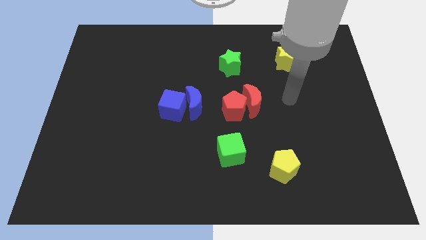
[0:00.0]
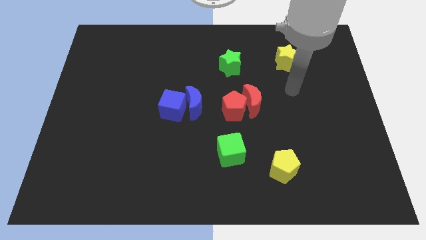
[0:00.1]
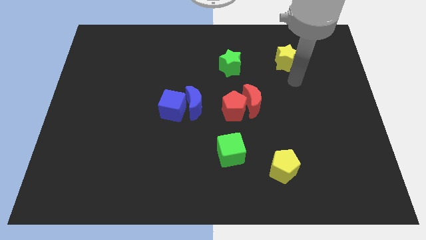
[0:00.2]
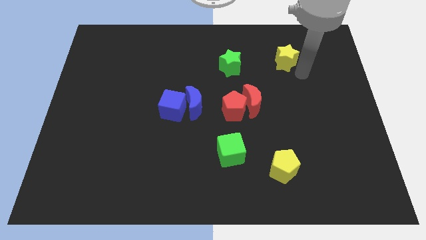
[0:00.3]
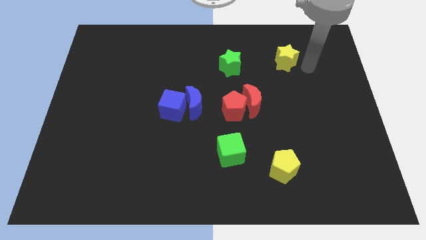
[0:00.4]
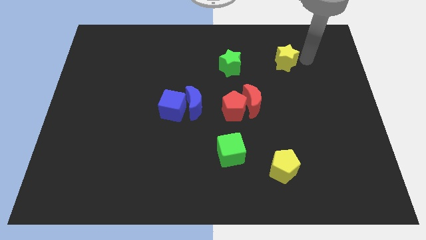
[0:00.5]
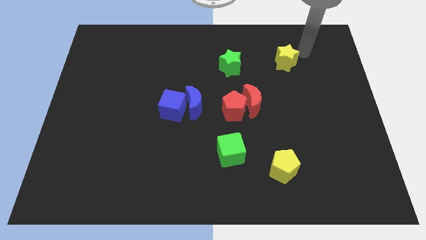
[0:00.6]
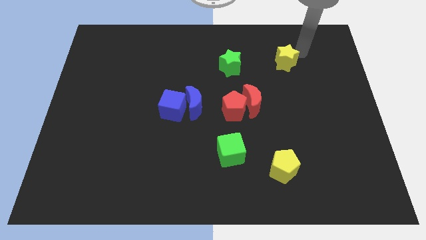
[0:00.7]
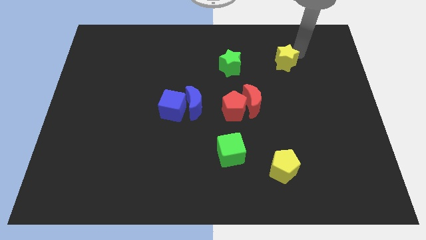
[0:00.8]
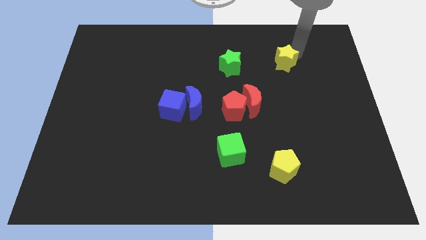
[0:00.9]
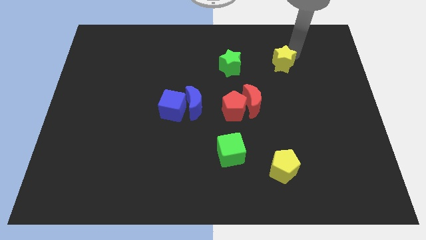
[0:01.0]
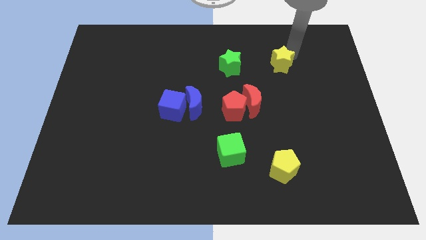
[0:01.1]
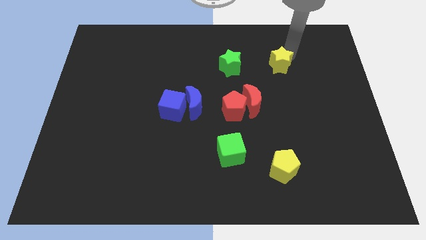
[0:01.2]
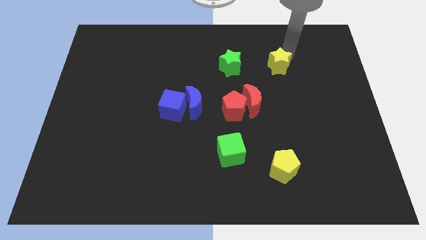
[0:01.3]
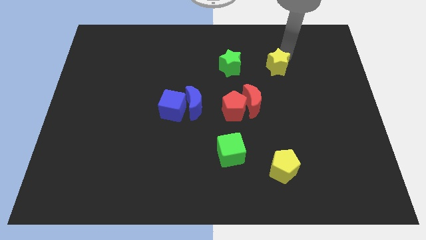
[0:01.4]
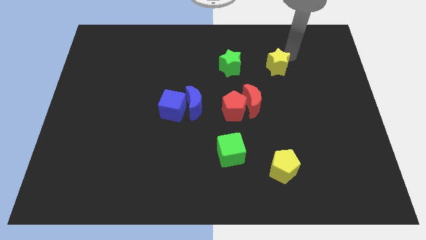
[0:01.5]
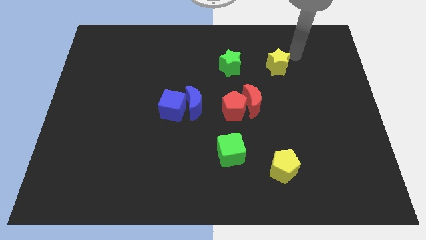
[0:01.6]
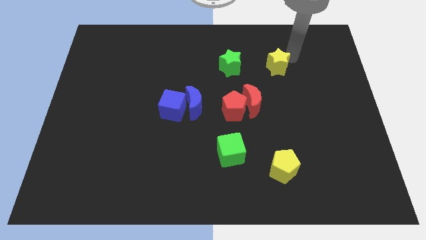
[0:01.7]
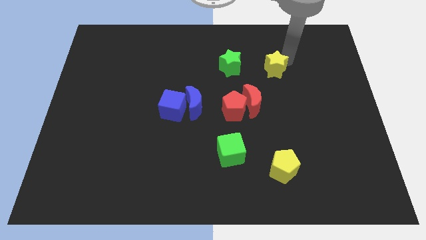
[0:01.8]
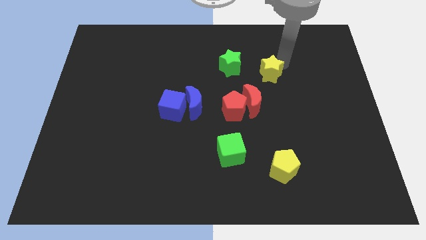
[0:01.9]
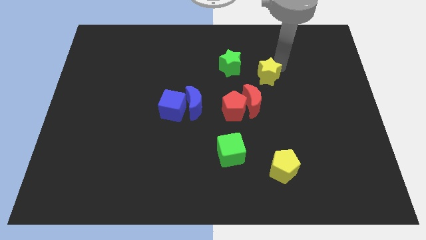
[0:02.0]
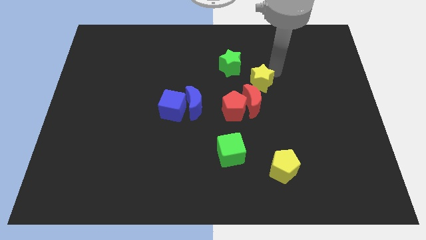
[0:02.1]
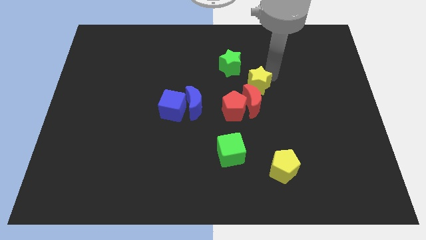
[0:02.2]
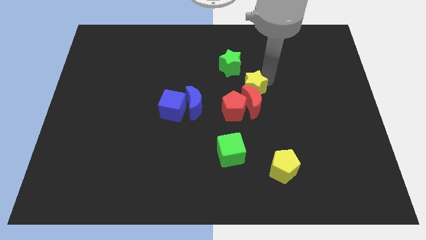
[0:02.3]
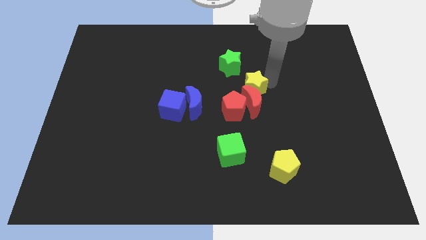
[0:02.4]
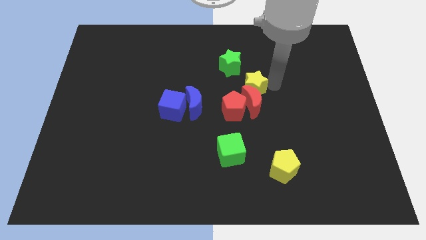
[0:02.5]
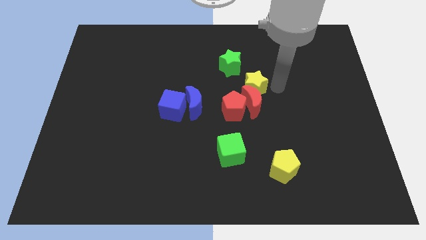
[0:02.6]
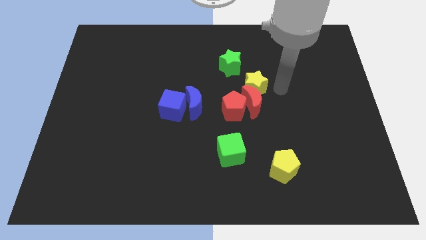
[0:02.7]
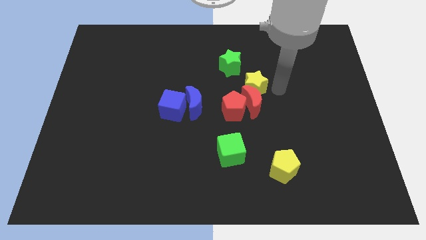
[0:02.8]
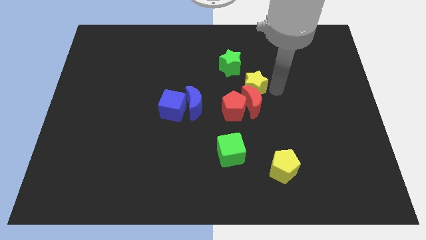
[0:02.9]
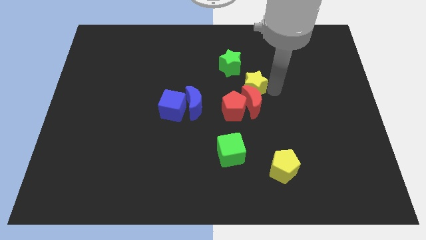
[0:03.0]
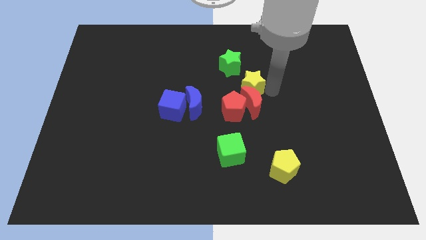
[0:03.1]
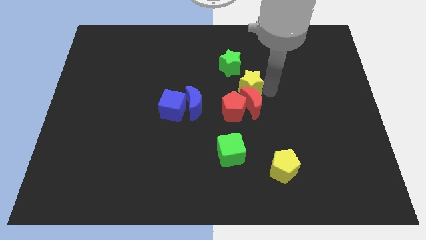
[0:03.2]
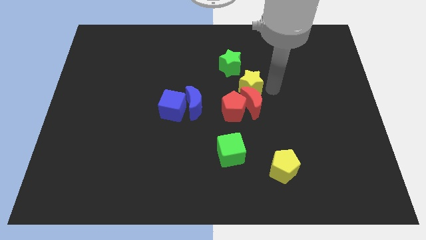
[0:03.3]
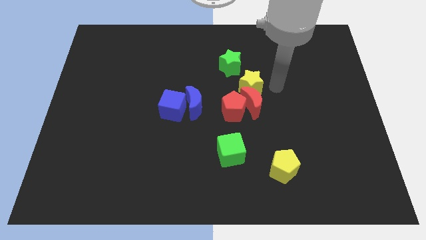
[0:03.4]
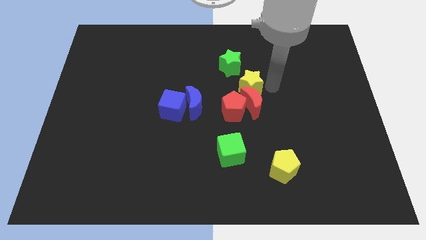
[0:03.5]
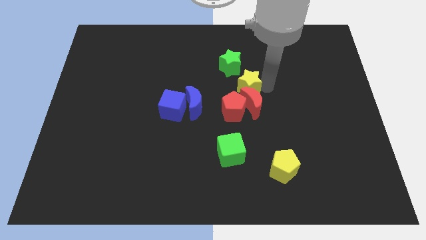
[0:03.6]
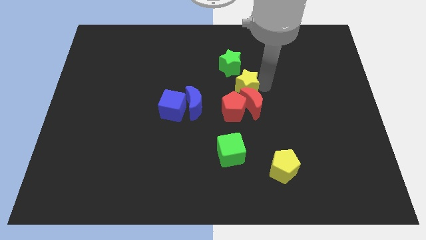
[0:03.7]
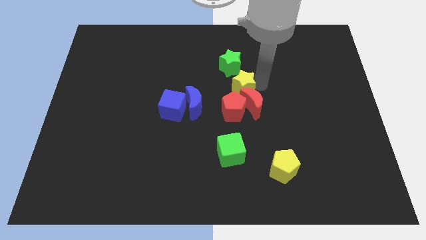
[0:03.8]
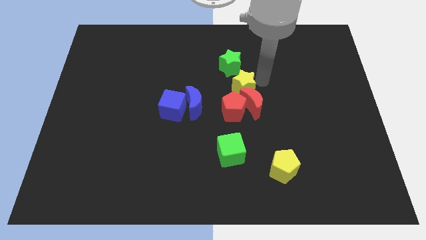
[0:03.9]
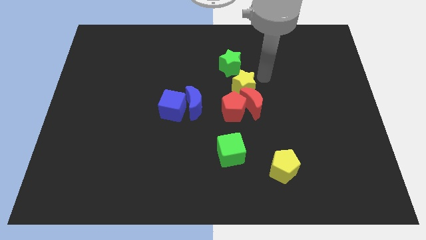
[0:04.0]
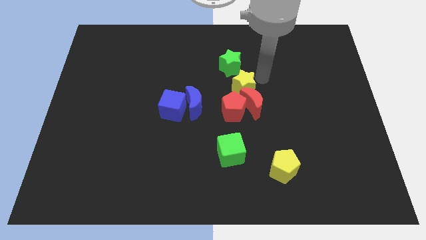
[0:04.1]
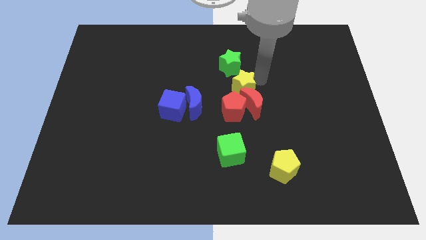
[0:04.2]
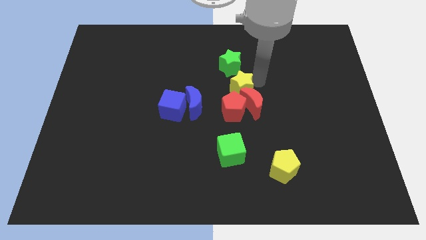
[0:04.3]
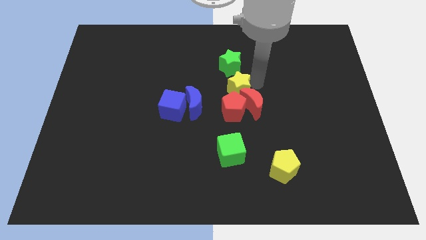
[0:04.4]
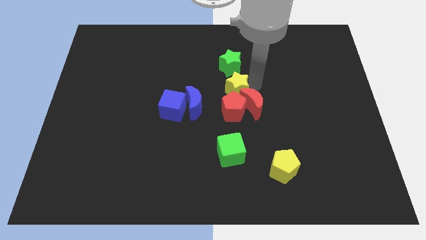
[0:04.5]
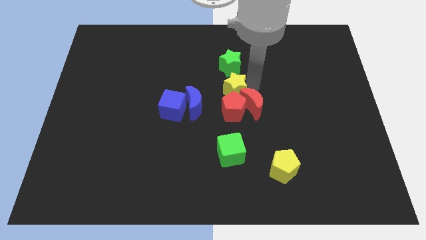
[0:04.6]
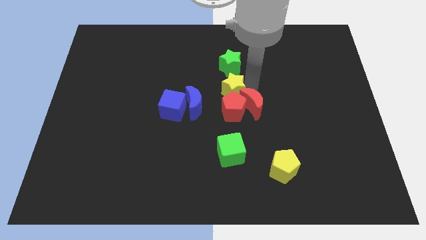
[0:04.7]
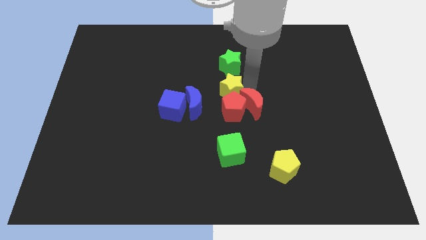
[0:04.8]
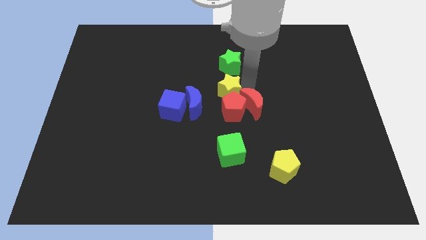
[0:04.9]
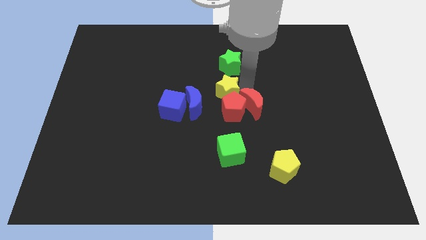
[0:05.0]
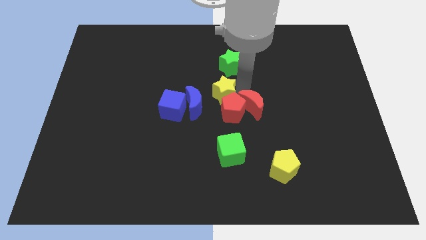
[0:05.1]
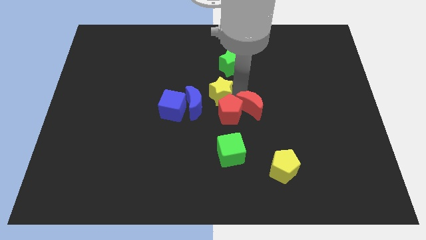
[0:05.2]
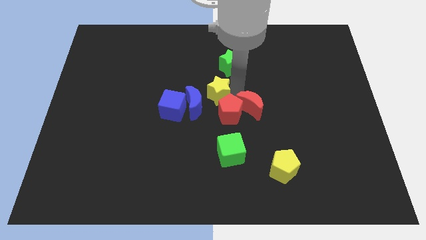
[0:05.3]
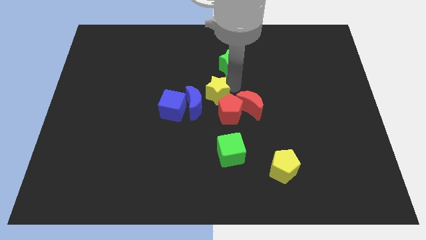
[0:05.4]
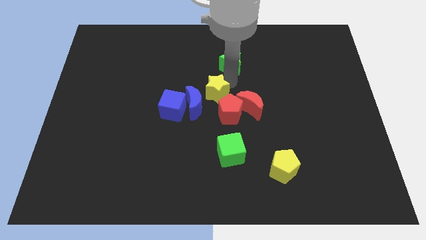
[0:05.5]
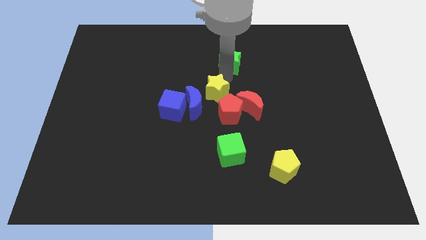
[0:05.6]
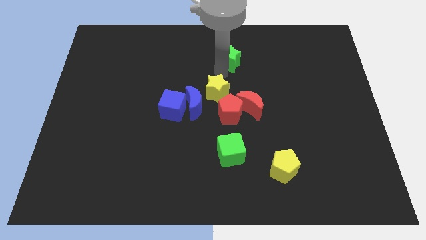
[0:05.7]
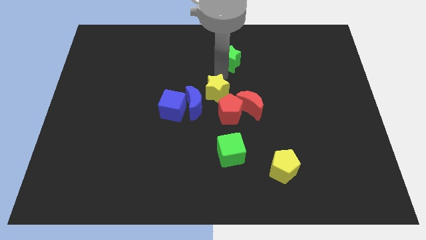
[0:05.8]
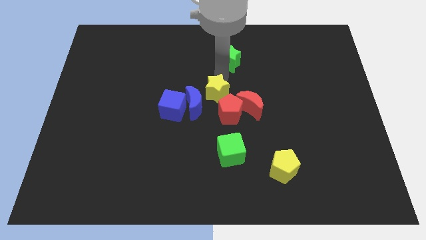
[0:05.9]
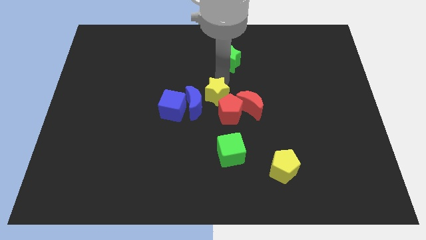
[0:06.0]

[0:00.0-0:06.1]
move the yellow star down and then to the left

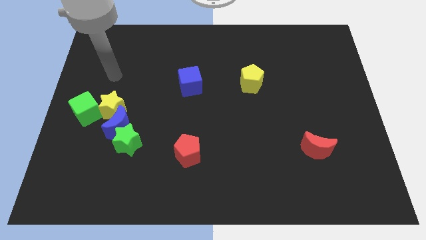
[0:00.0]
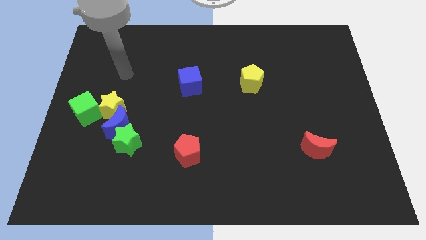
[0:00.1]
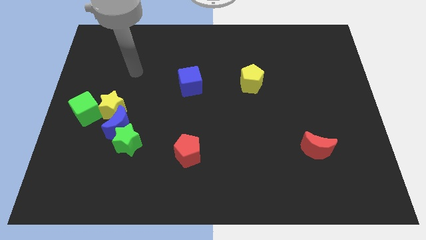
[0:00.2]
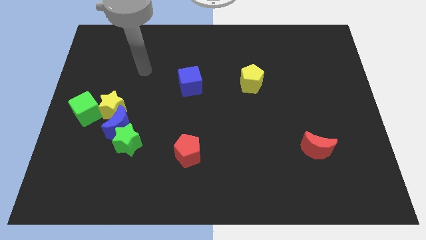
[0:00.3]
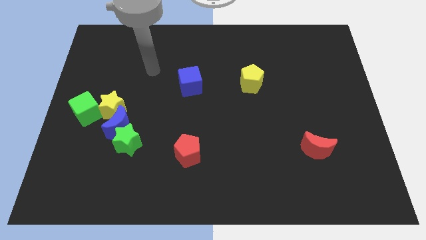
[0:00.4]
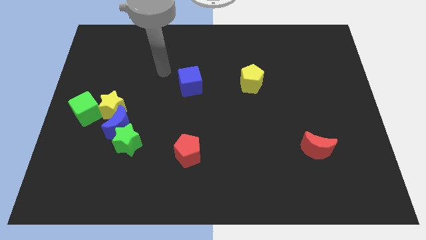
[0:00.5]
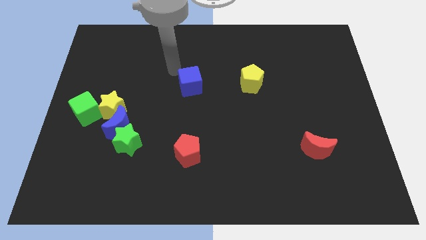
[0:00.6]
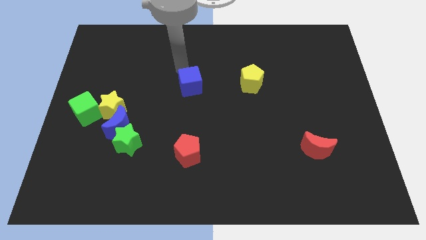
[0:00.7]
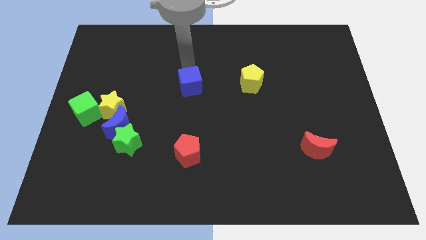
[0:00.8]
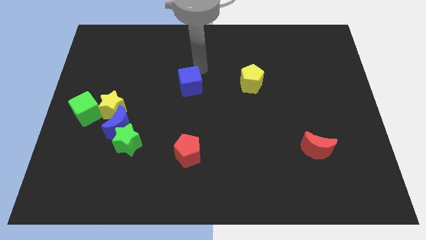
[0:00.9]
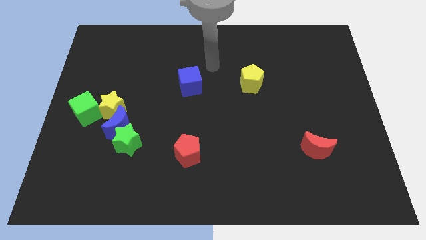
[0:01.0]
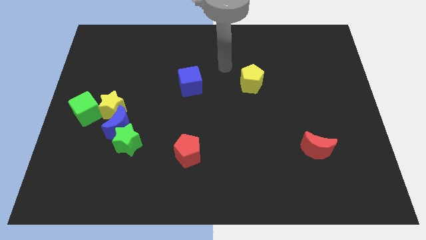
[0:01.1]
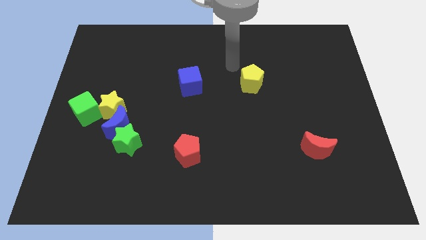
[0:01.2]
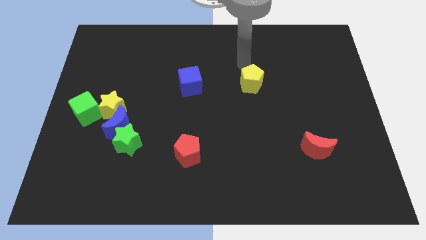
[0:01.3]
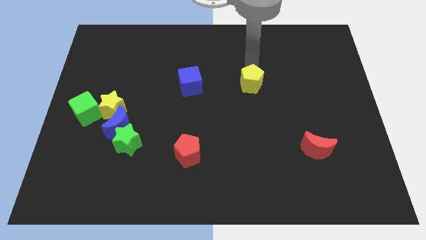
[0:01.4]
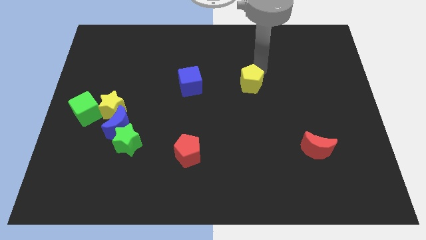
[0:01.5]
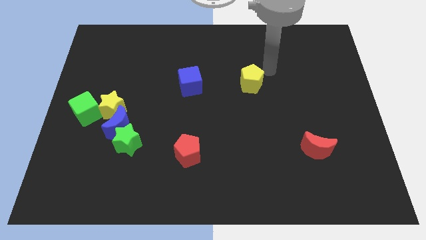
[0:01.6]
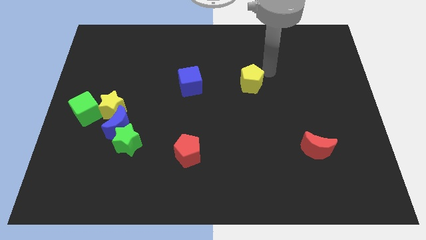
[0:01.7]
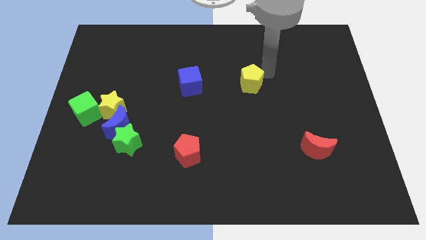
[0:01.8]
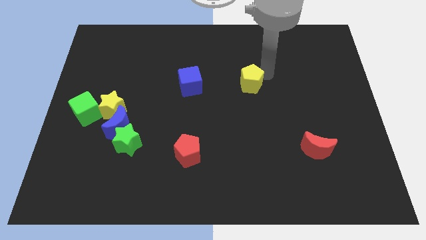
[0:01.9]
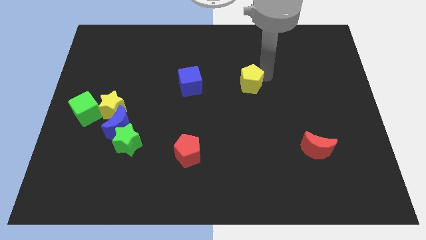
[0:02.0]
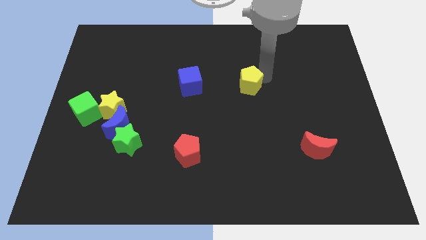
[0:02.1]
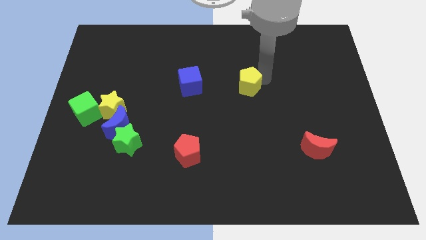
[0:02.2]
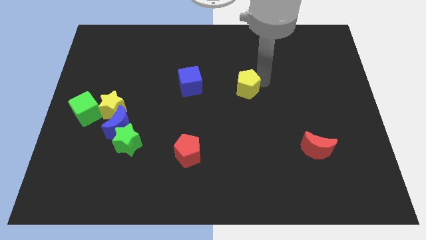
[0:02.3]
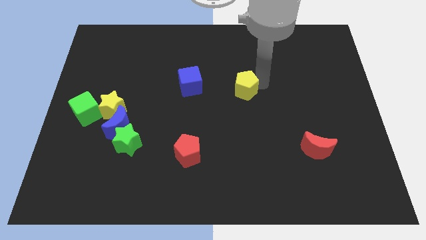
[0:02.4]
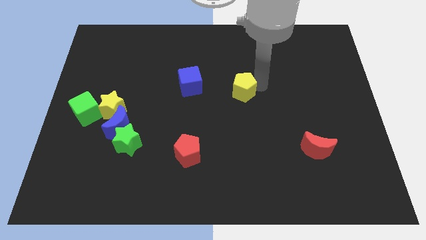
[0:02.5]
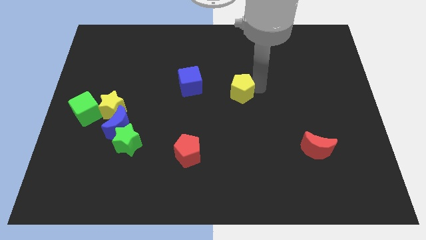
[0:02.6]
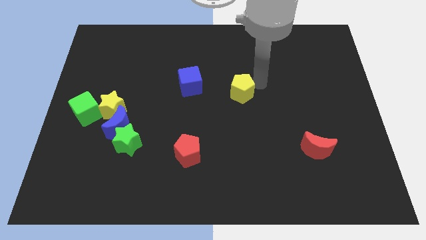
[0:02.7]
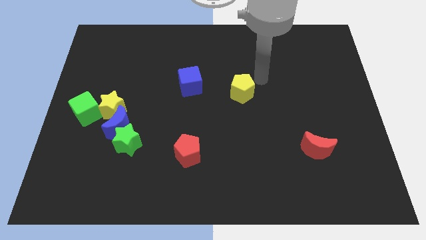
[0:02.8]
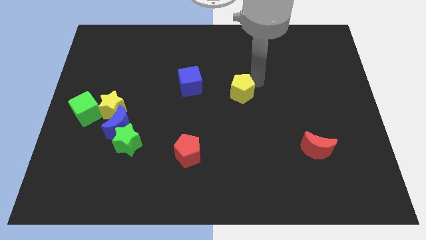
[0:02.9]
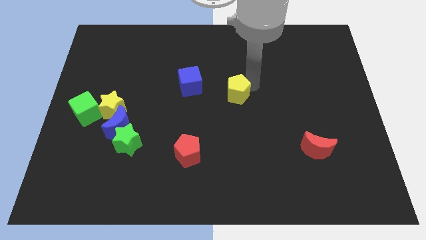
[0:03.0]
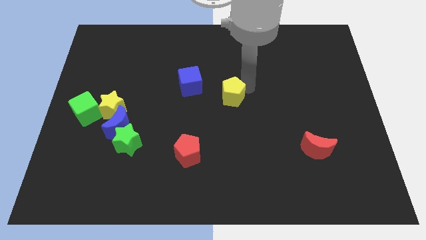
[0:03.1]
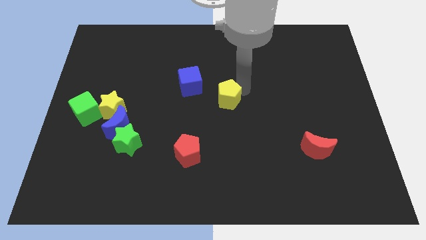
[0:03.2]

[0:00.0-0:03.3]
slightly slide the yellow pentagon down and left diagonally
